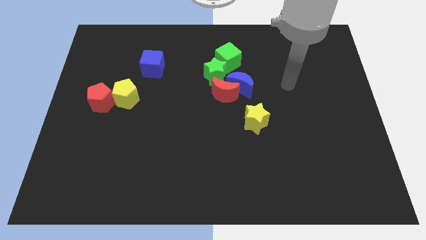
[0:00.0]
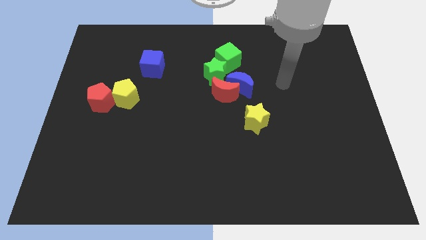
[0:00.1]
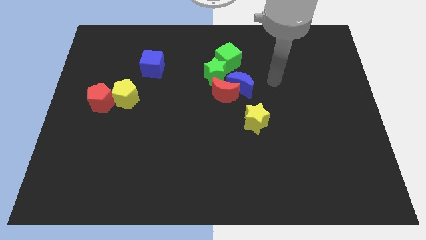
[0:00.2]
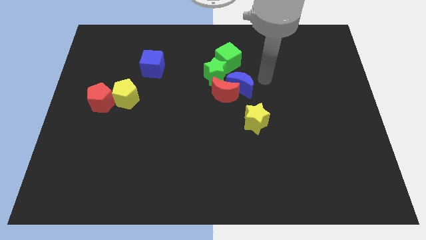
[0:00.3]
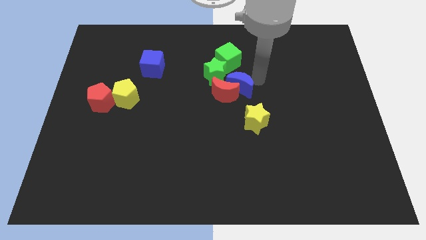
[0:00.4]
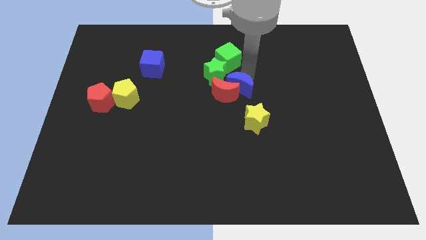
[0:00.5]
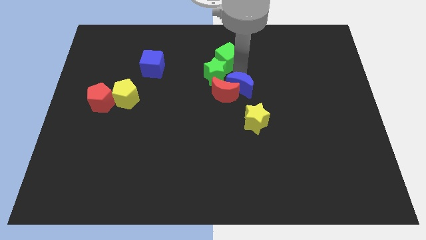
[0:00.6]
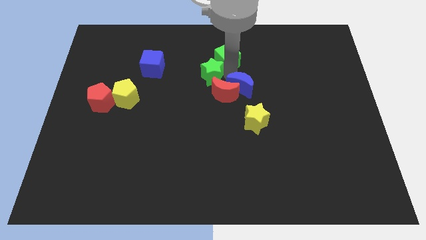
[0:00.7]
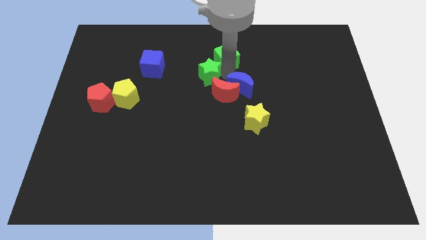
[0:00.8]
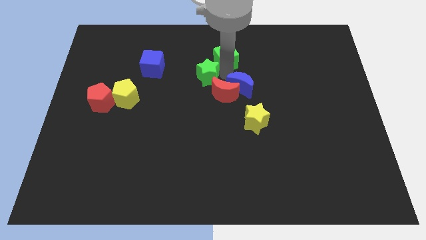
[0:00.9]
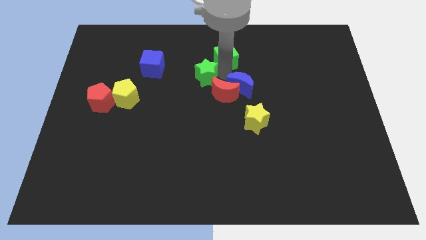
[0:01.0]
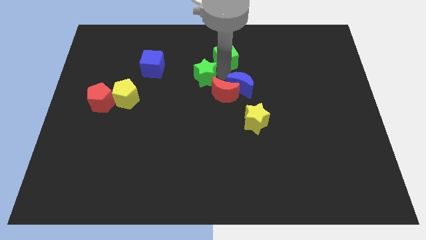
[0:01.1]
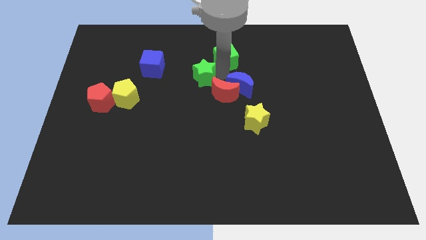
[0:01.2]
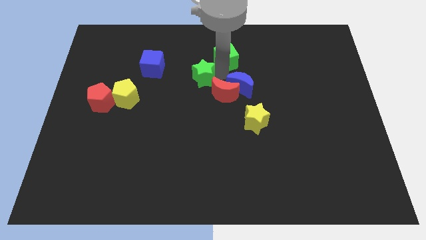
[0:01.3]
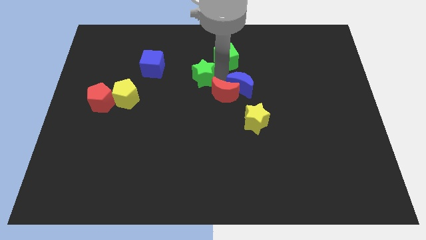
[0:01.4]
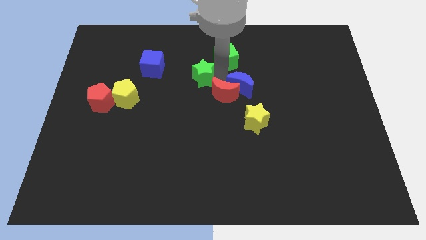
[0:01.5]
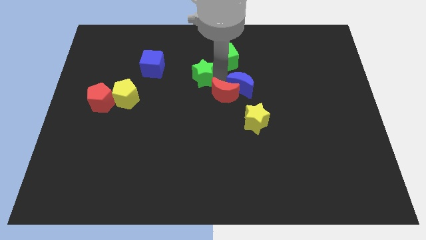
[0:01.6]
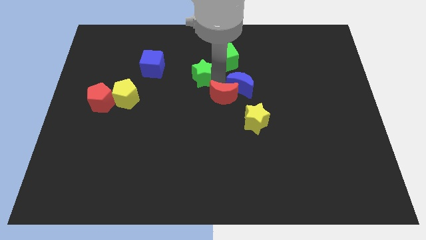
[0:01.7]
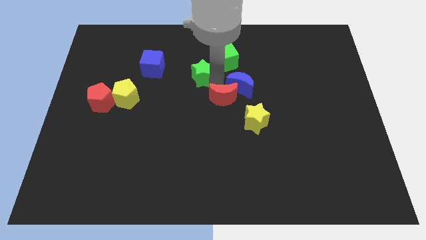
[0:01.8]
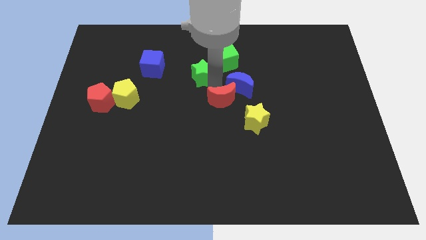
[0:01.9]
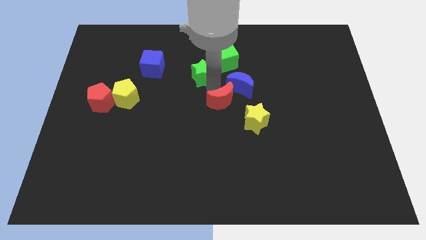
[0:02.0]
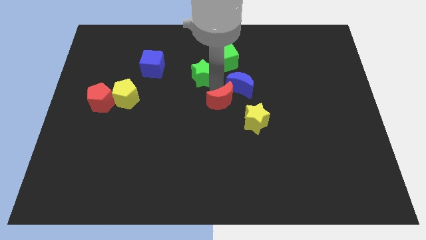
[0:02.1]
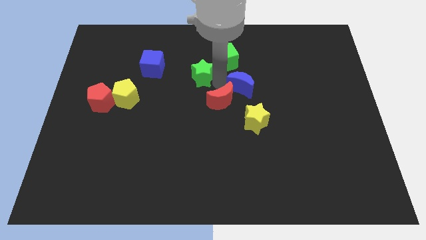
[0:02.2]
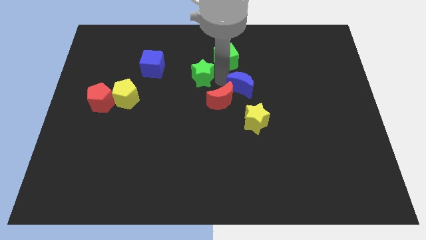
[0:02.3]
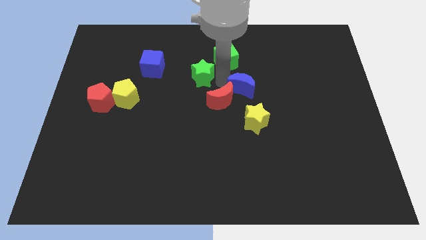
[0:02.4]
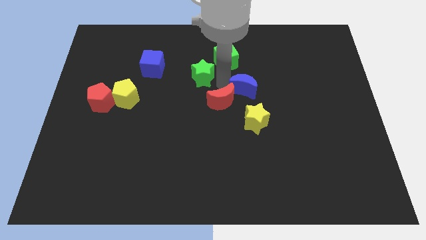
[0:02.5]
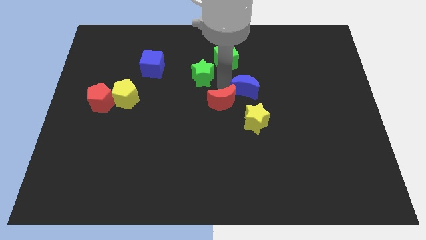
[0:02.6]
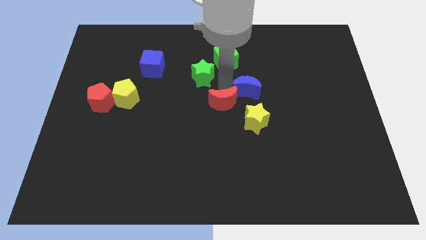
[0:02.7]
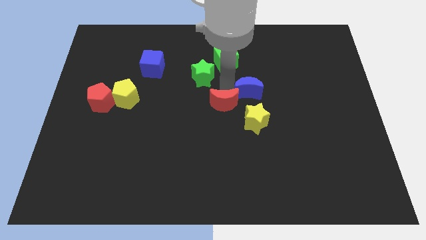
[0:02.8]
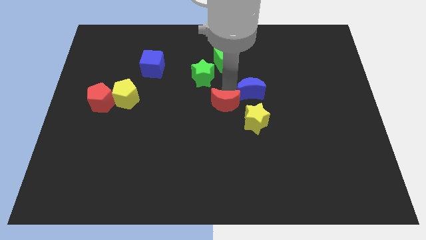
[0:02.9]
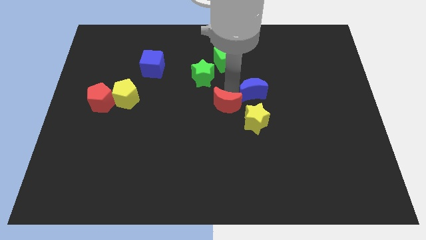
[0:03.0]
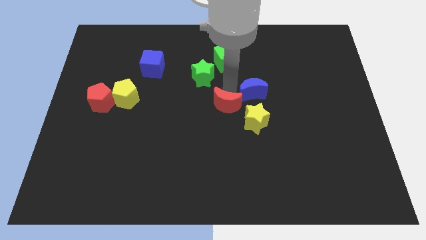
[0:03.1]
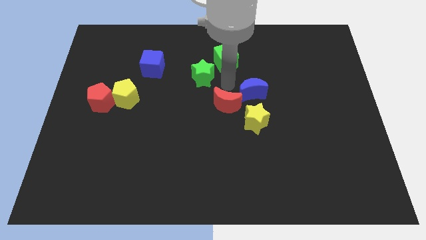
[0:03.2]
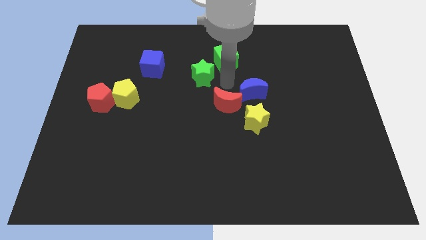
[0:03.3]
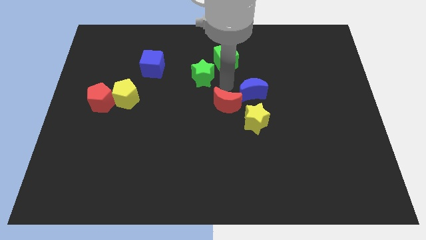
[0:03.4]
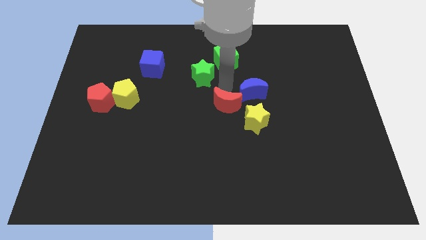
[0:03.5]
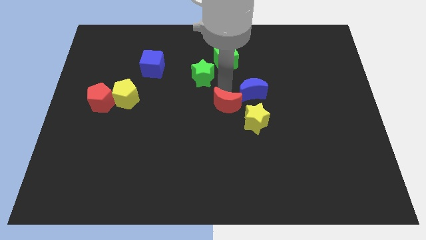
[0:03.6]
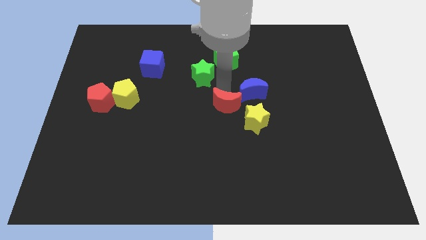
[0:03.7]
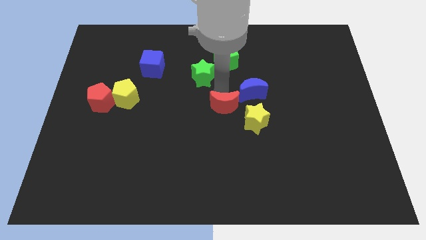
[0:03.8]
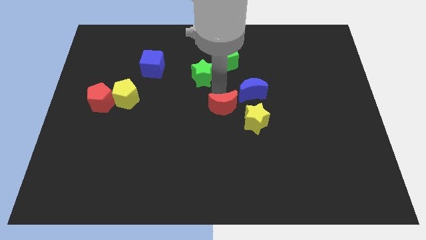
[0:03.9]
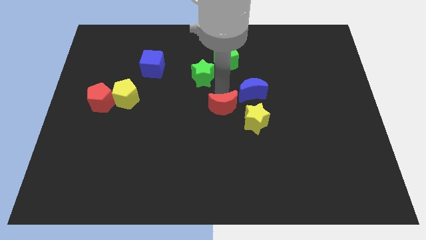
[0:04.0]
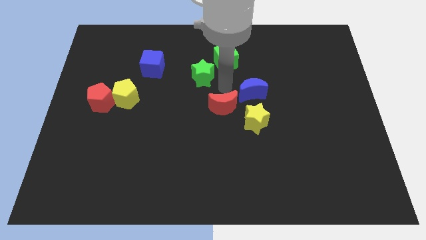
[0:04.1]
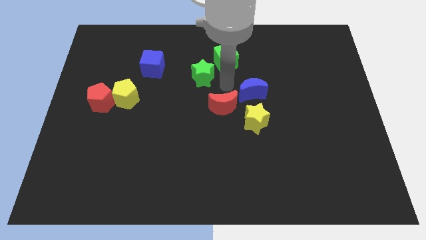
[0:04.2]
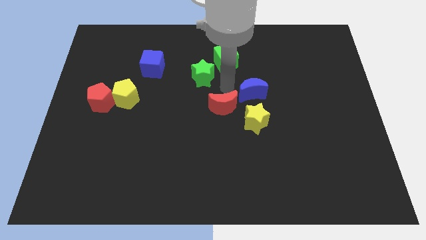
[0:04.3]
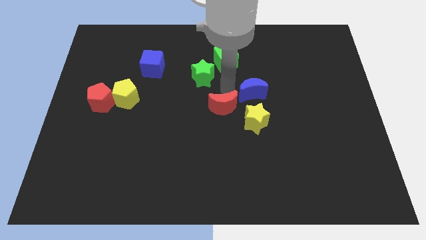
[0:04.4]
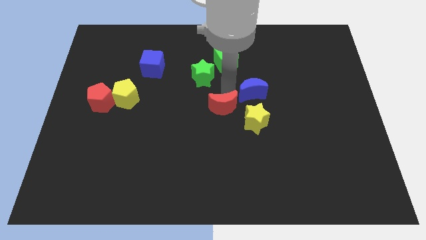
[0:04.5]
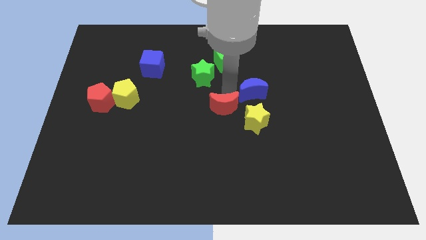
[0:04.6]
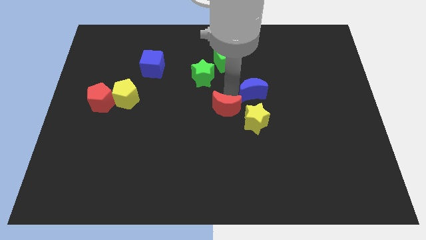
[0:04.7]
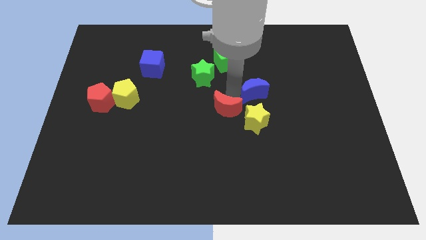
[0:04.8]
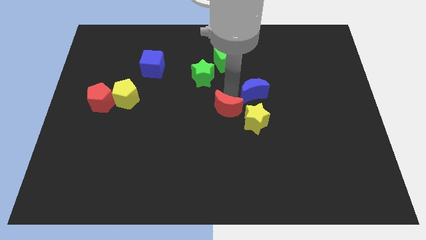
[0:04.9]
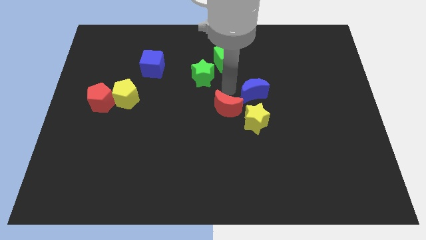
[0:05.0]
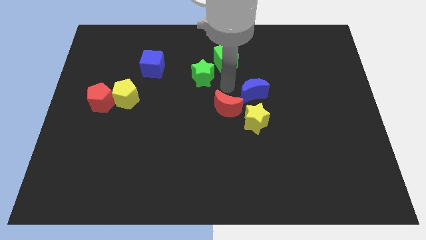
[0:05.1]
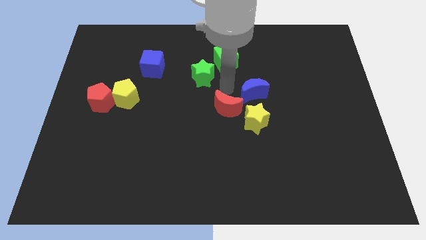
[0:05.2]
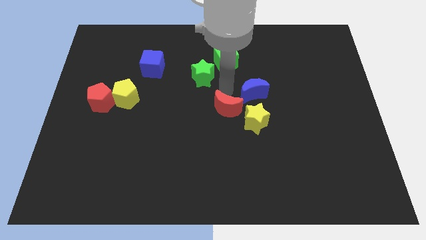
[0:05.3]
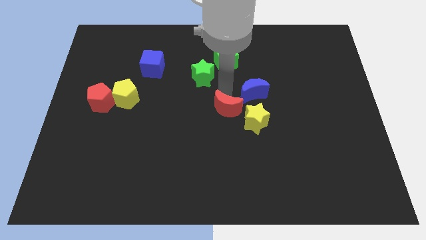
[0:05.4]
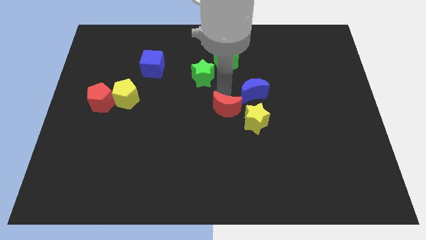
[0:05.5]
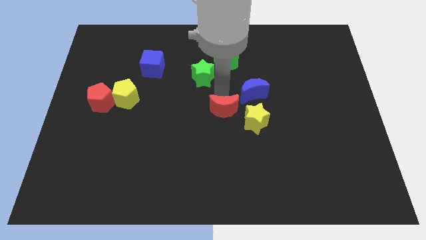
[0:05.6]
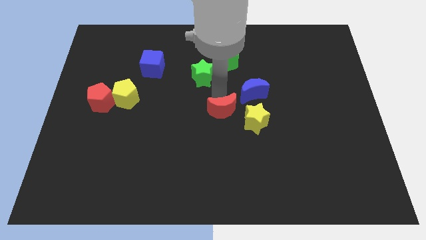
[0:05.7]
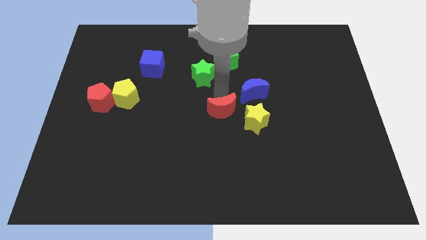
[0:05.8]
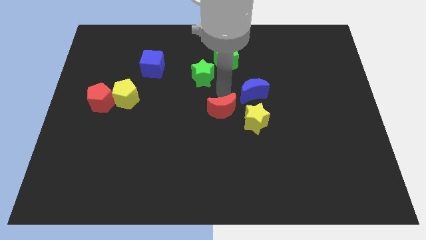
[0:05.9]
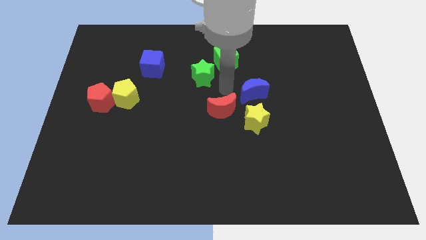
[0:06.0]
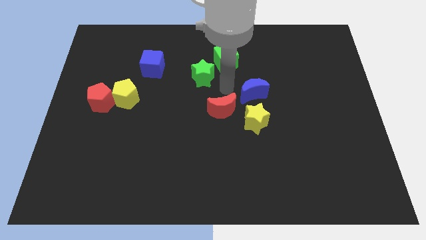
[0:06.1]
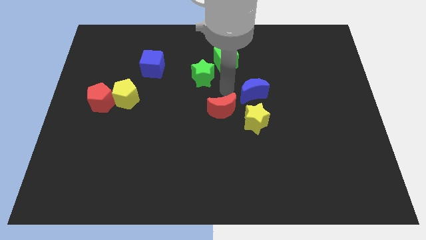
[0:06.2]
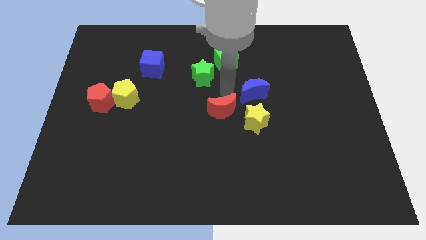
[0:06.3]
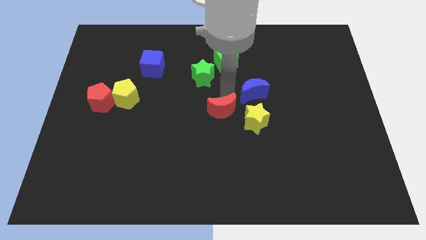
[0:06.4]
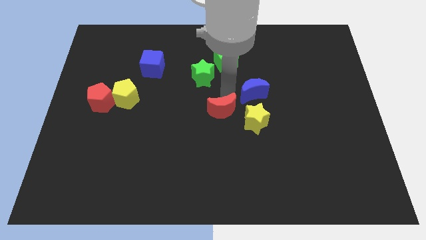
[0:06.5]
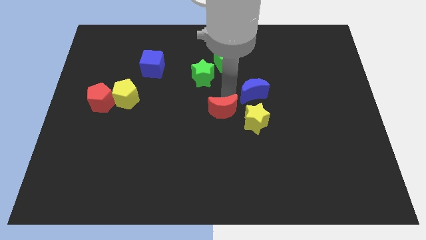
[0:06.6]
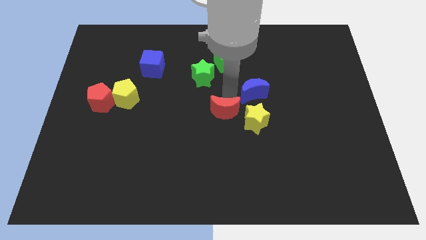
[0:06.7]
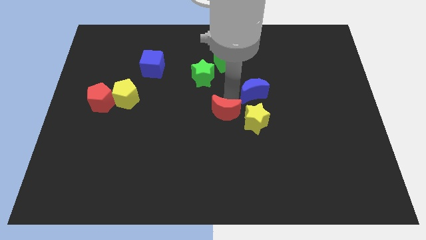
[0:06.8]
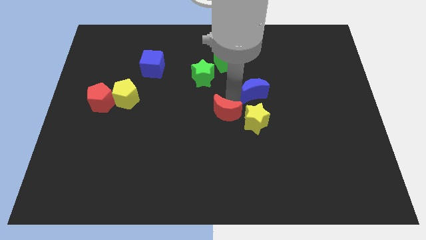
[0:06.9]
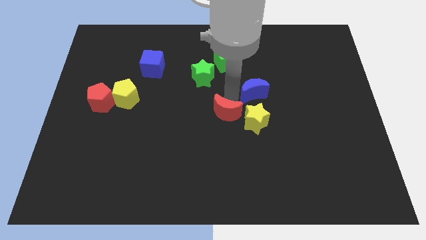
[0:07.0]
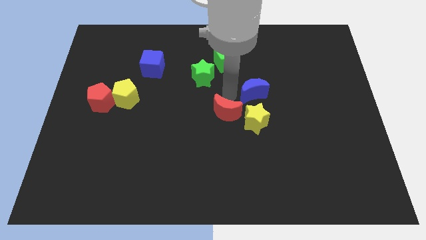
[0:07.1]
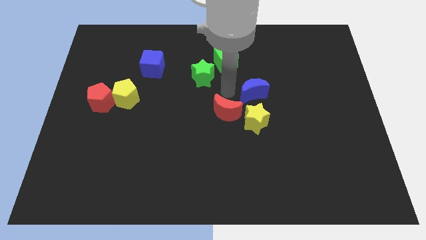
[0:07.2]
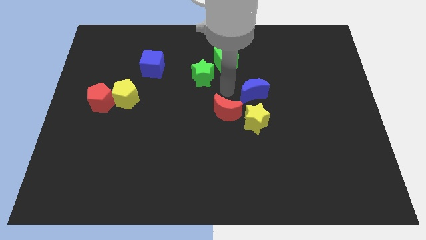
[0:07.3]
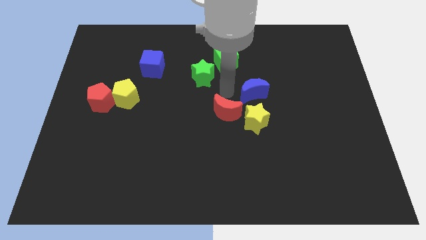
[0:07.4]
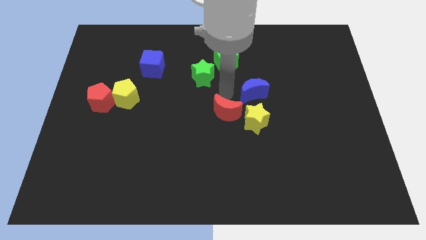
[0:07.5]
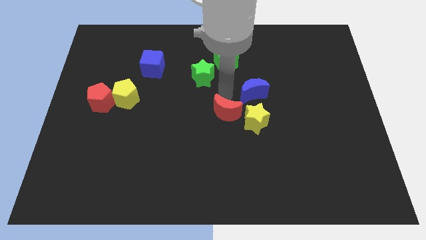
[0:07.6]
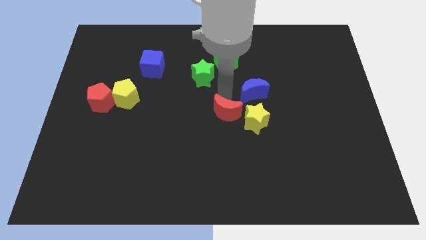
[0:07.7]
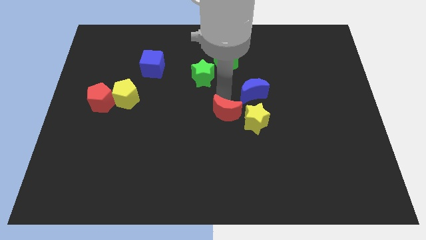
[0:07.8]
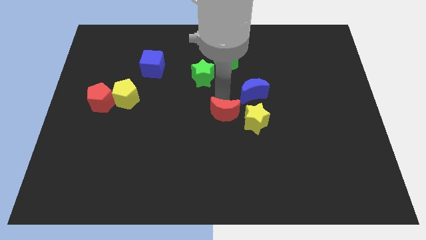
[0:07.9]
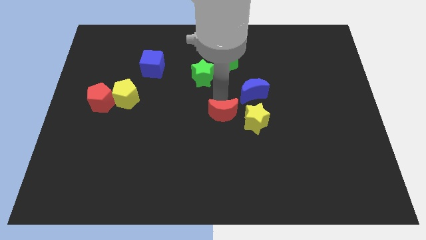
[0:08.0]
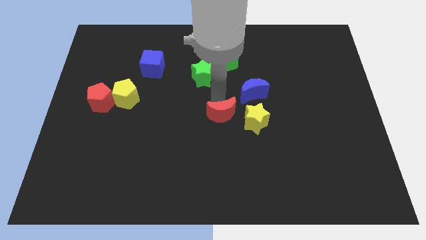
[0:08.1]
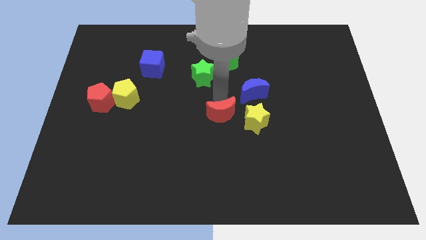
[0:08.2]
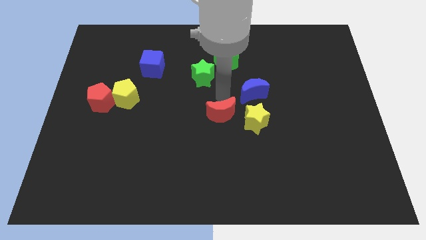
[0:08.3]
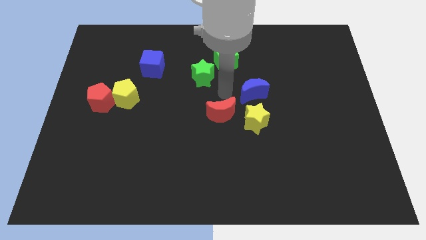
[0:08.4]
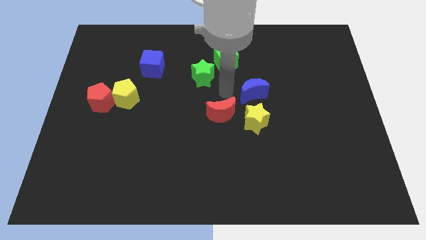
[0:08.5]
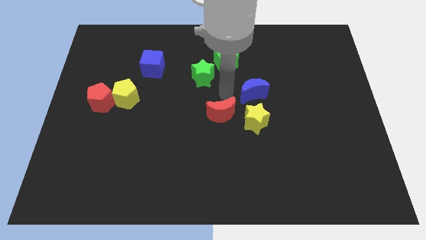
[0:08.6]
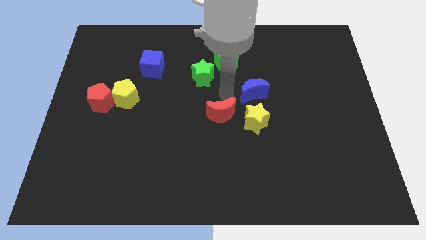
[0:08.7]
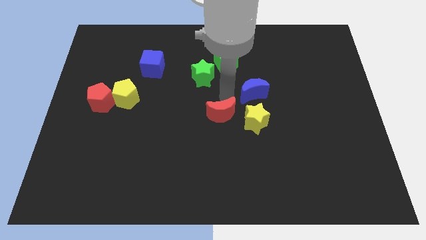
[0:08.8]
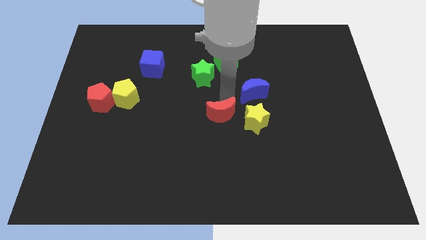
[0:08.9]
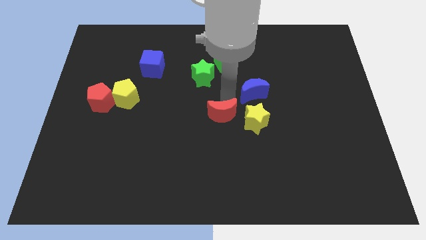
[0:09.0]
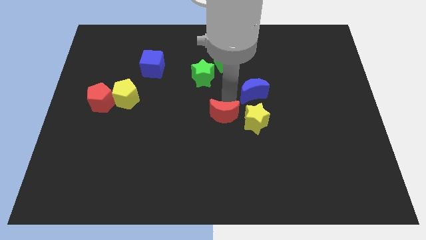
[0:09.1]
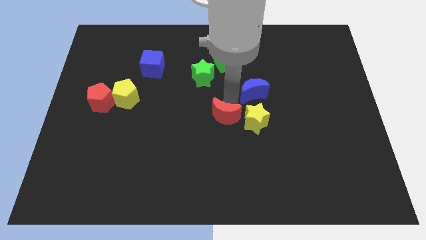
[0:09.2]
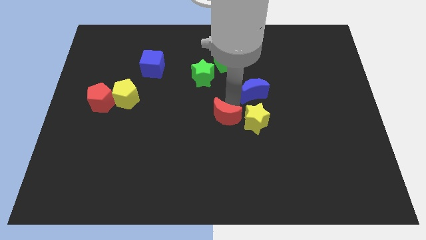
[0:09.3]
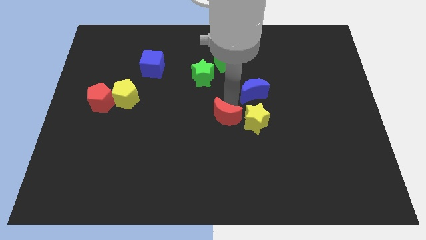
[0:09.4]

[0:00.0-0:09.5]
pull the red moon apart from the blue moon and green star
